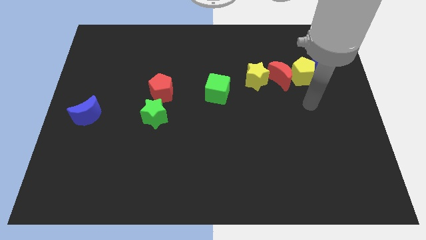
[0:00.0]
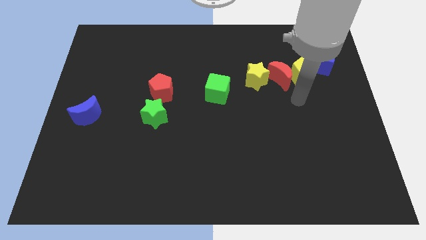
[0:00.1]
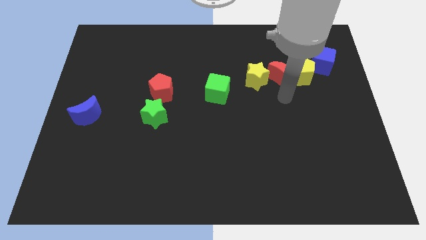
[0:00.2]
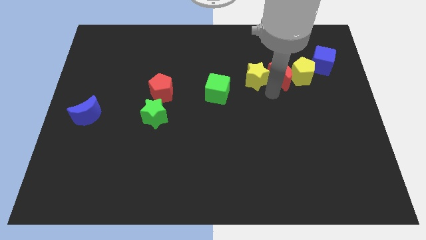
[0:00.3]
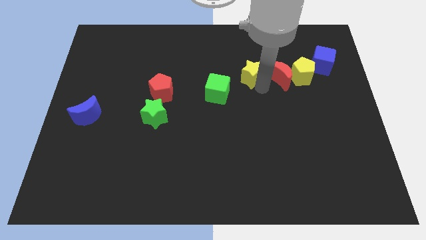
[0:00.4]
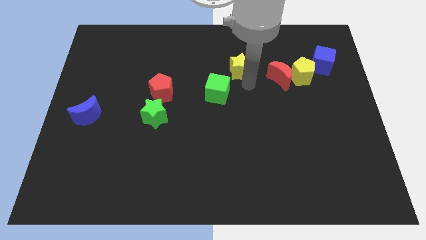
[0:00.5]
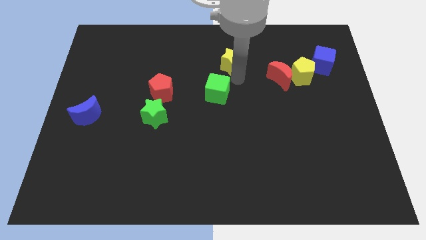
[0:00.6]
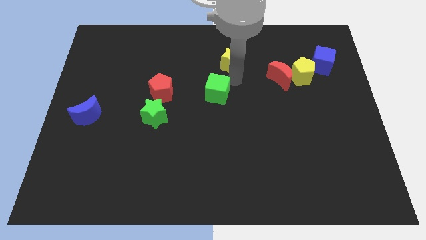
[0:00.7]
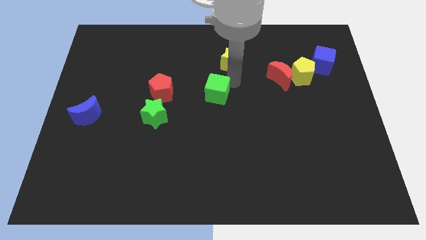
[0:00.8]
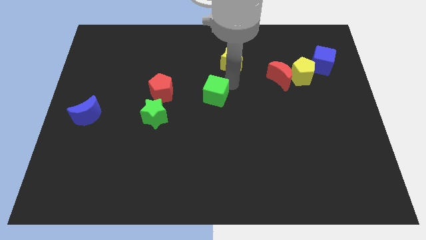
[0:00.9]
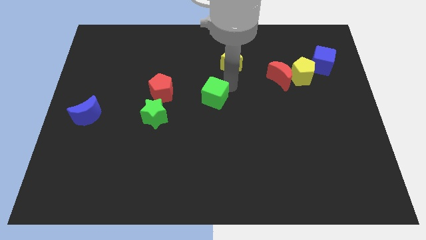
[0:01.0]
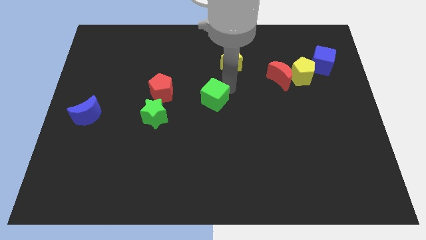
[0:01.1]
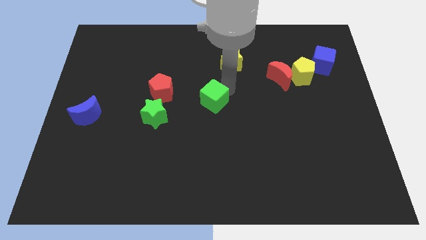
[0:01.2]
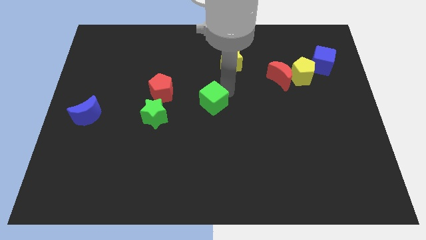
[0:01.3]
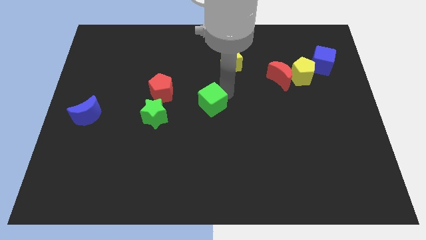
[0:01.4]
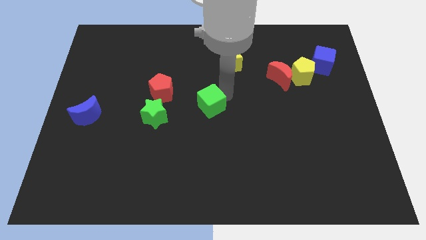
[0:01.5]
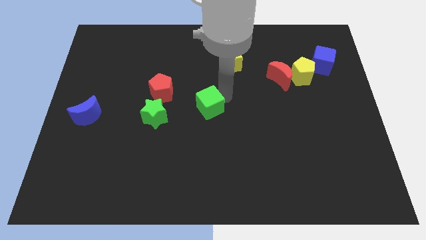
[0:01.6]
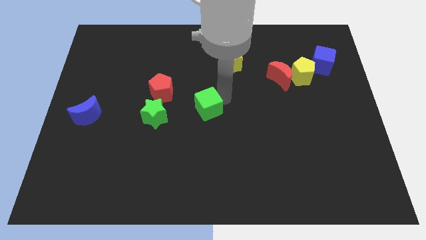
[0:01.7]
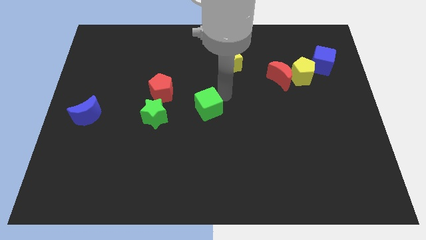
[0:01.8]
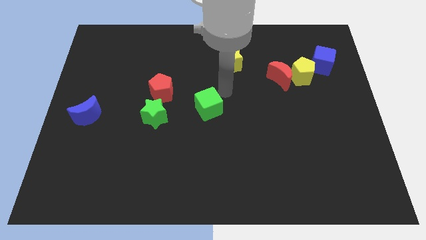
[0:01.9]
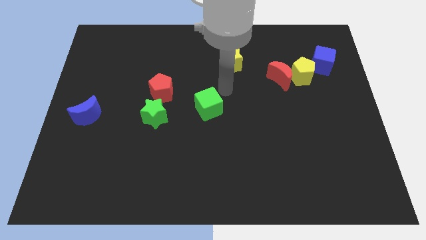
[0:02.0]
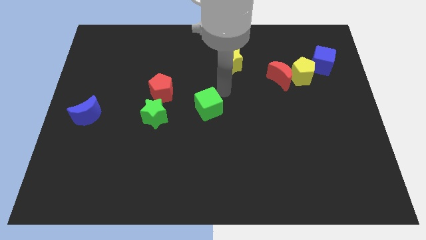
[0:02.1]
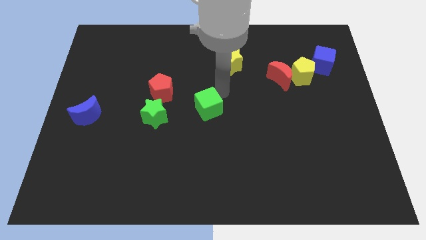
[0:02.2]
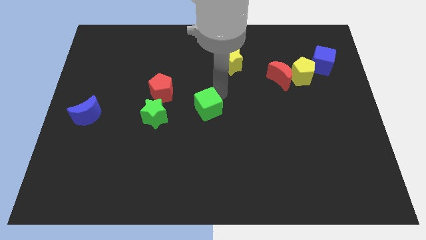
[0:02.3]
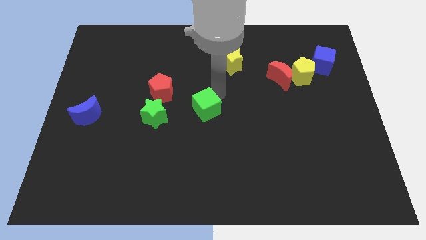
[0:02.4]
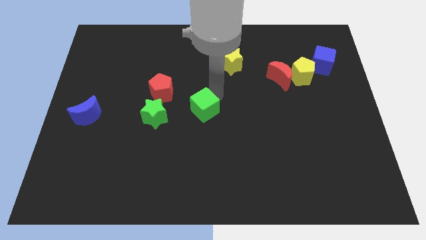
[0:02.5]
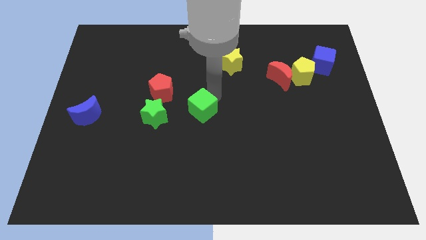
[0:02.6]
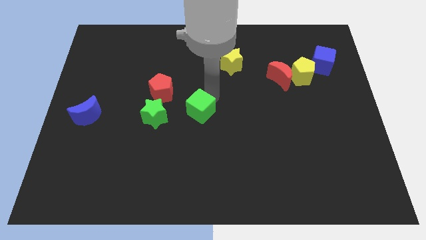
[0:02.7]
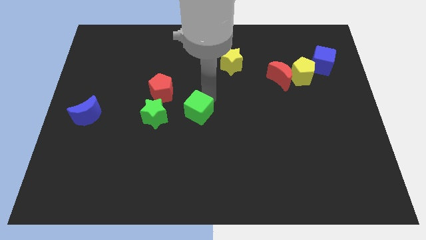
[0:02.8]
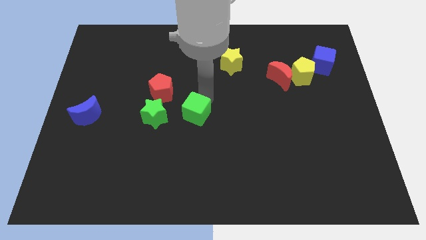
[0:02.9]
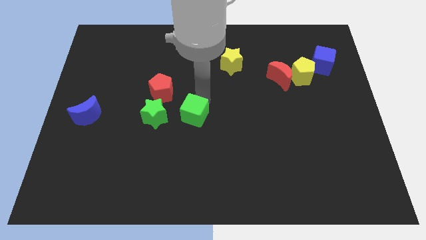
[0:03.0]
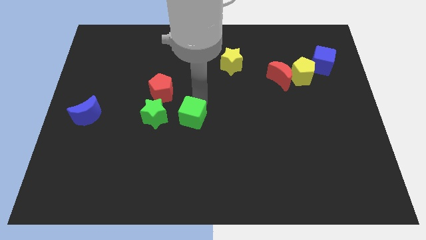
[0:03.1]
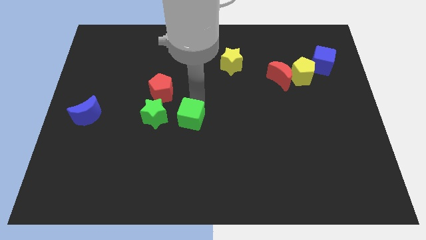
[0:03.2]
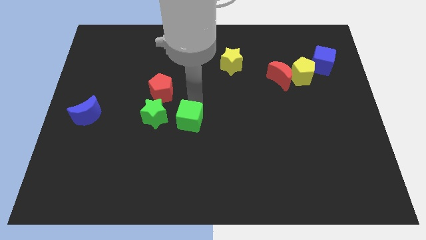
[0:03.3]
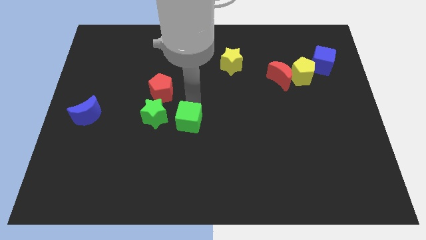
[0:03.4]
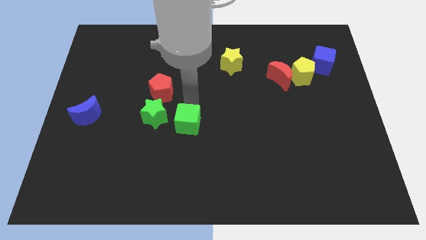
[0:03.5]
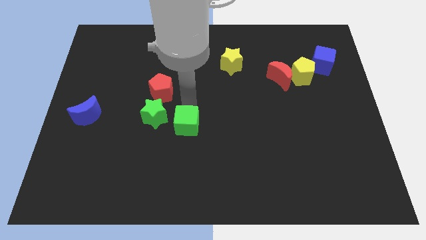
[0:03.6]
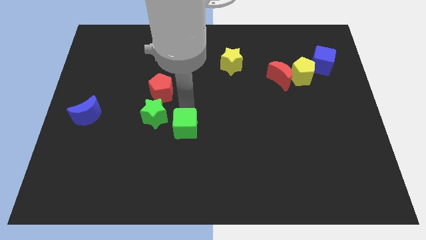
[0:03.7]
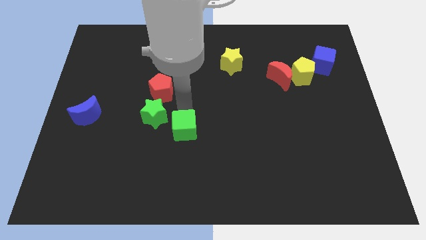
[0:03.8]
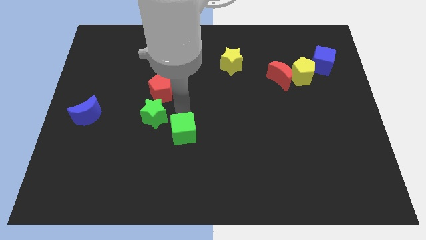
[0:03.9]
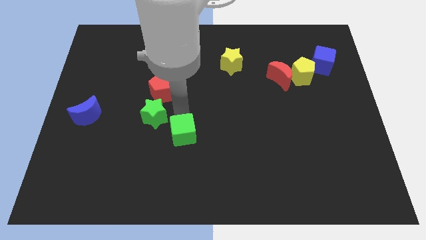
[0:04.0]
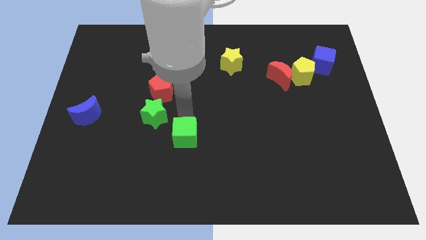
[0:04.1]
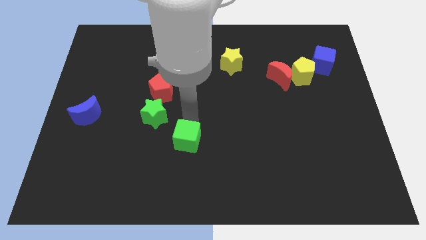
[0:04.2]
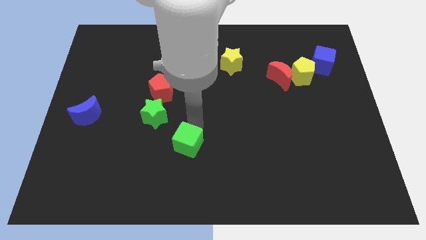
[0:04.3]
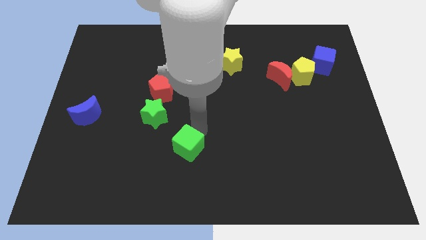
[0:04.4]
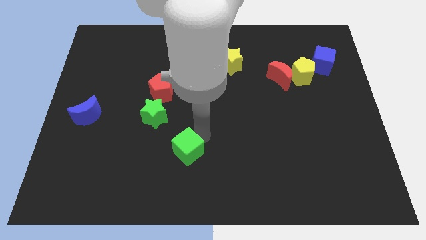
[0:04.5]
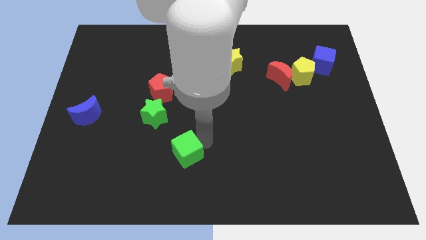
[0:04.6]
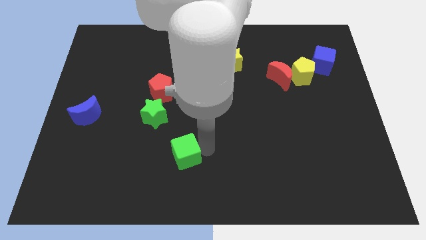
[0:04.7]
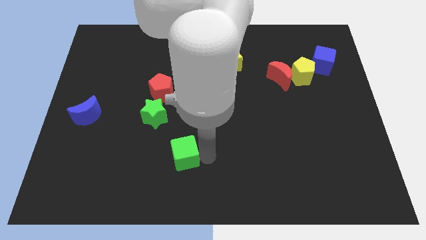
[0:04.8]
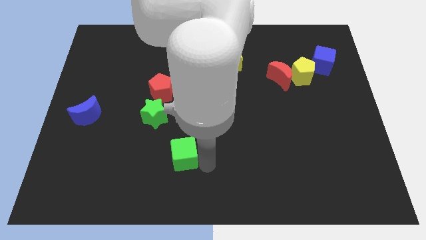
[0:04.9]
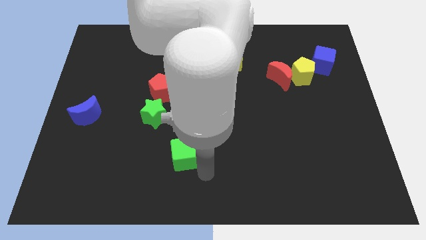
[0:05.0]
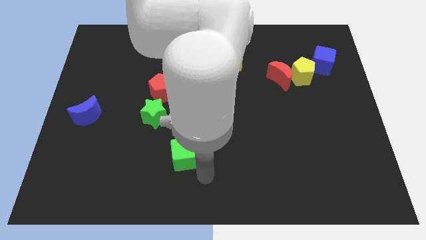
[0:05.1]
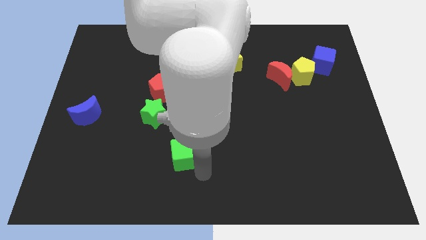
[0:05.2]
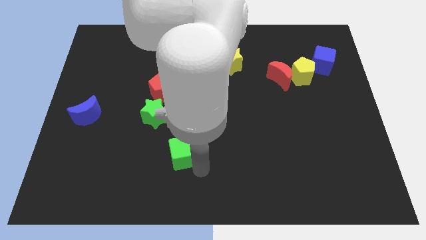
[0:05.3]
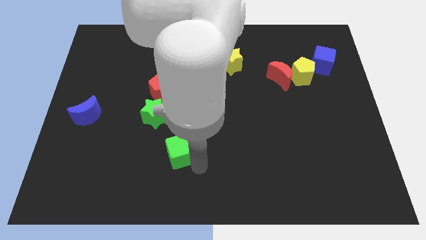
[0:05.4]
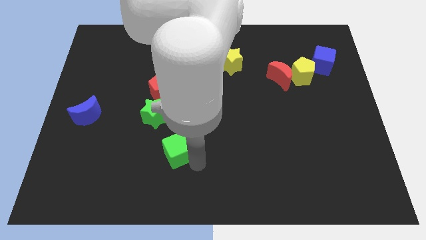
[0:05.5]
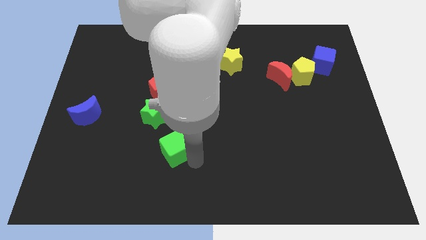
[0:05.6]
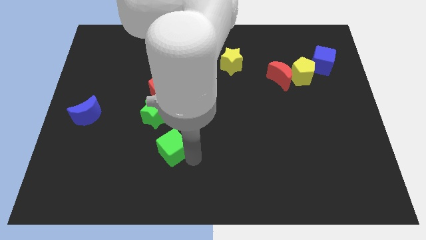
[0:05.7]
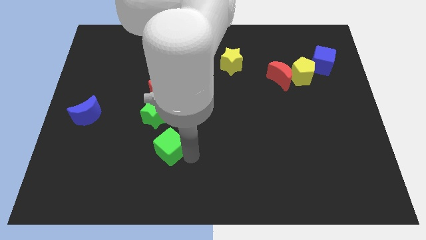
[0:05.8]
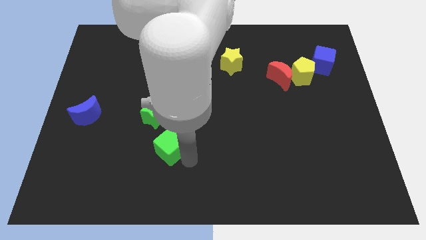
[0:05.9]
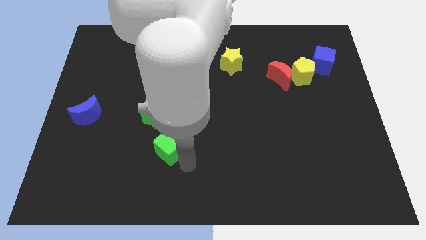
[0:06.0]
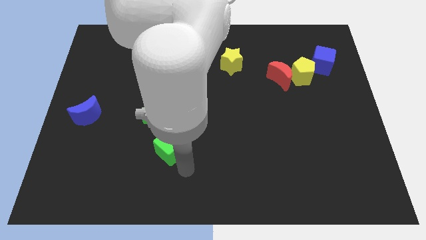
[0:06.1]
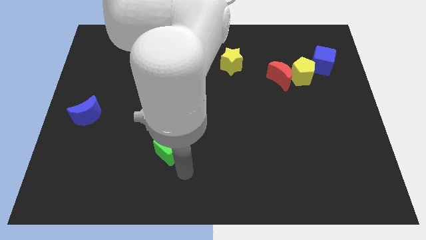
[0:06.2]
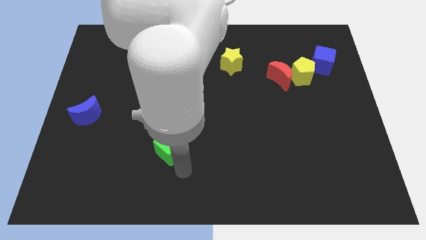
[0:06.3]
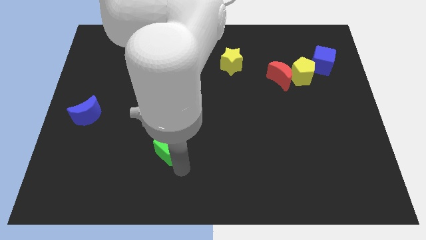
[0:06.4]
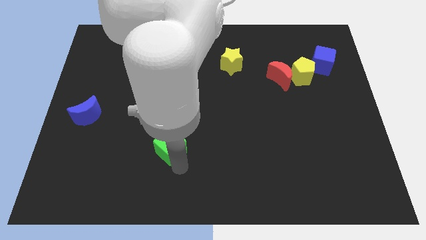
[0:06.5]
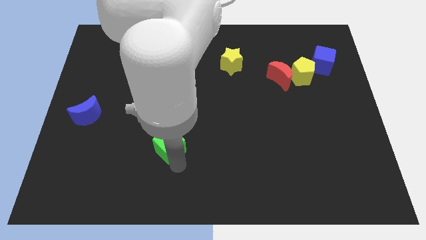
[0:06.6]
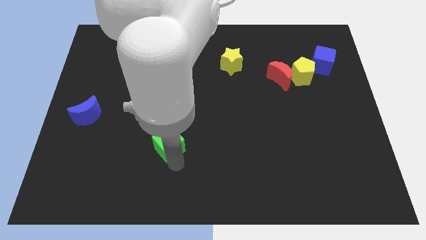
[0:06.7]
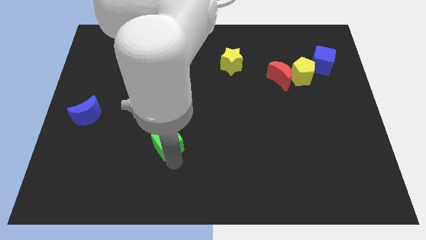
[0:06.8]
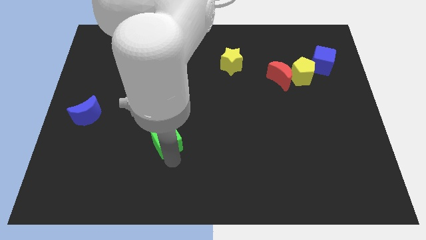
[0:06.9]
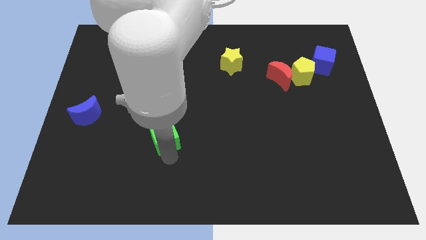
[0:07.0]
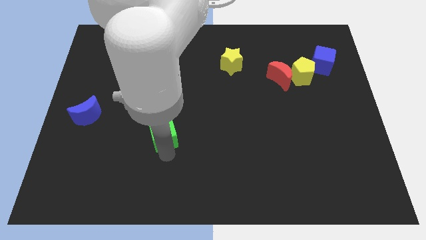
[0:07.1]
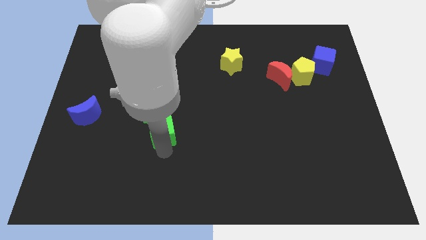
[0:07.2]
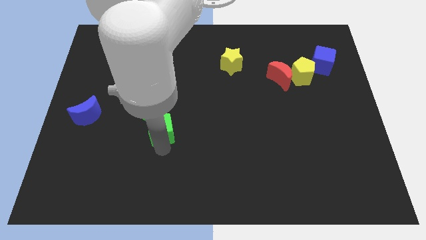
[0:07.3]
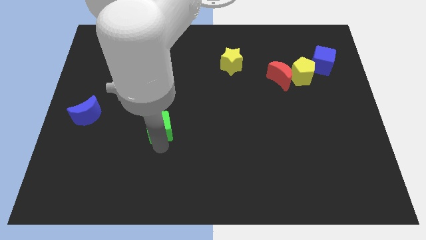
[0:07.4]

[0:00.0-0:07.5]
move the green cube to the bottom left side of the green star
